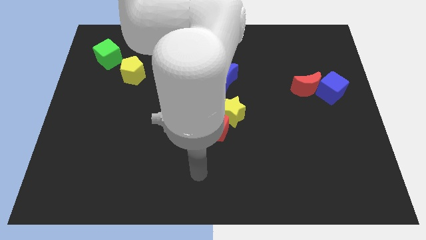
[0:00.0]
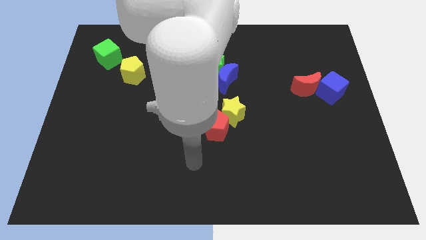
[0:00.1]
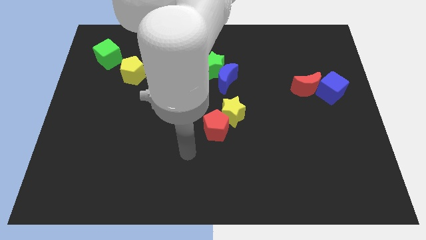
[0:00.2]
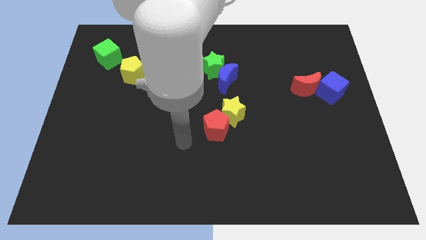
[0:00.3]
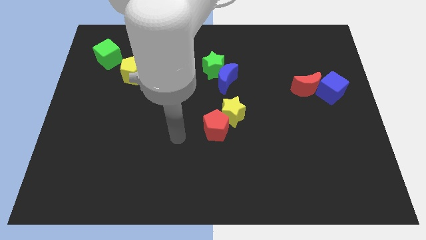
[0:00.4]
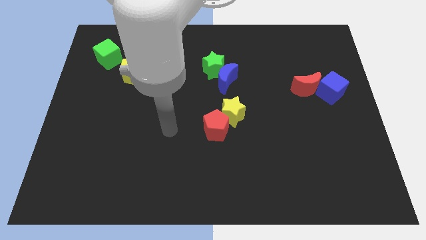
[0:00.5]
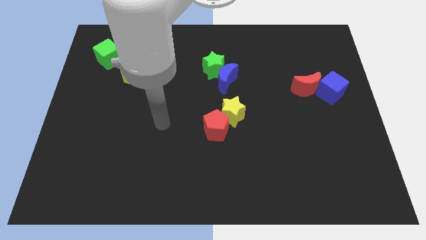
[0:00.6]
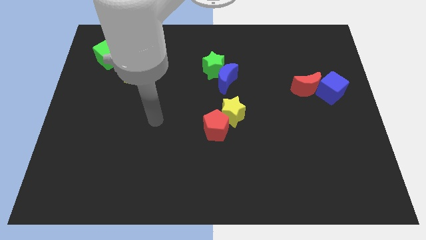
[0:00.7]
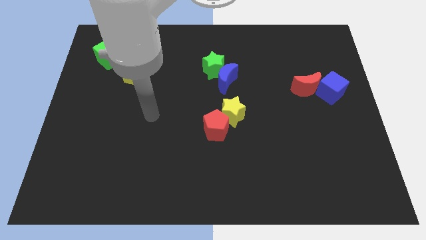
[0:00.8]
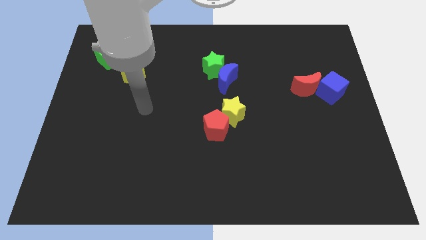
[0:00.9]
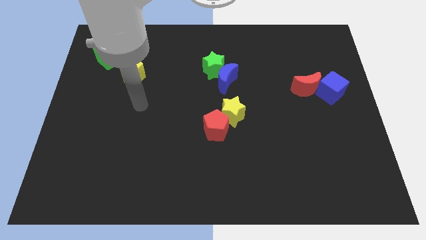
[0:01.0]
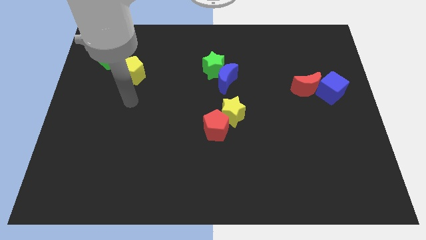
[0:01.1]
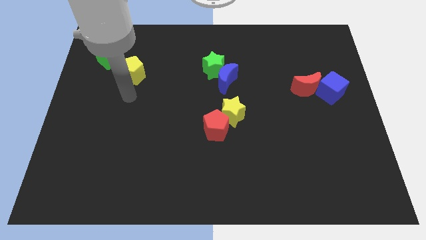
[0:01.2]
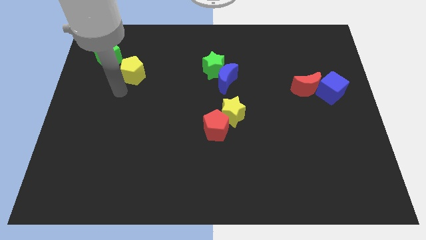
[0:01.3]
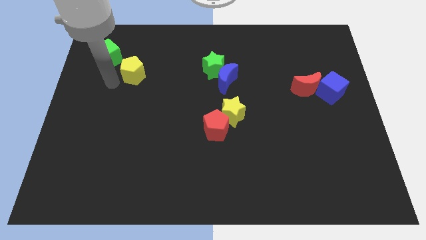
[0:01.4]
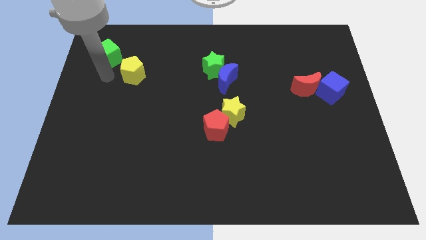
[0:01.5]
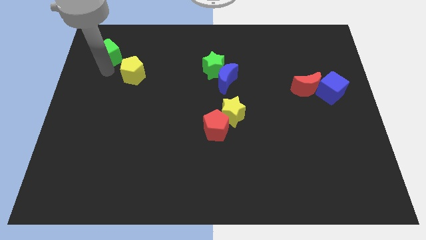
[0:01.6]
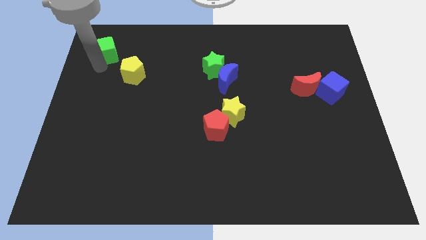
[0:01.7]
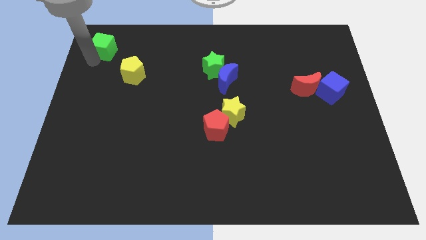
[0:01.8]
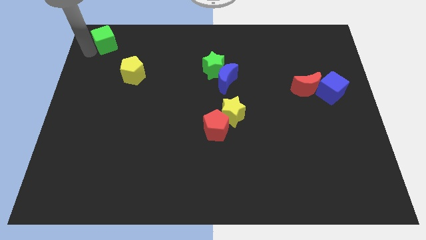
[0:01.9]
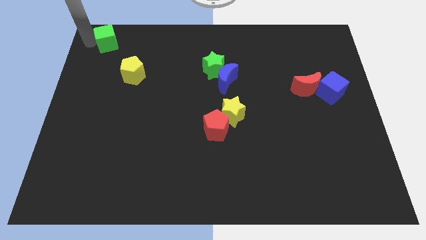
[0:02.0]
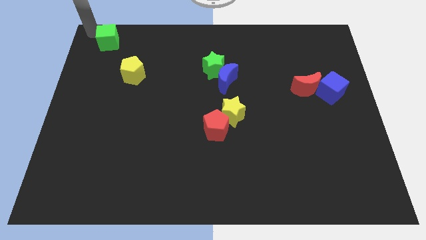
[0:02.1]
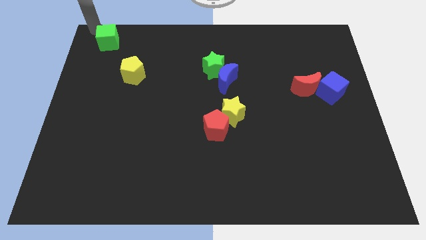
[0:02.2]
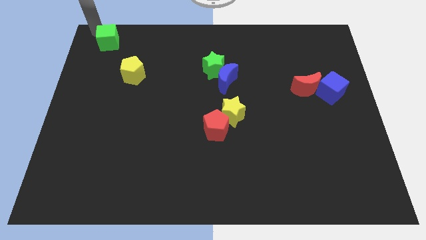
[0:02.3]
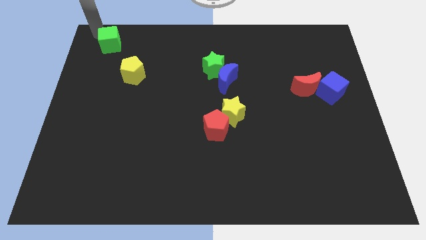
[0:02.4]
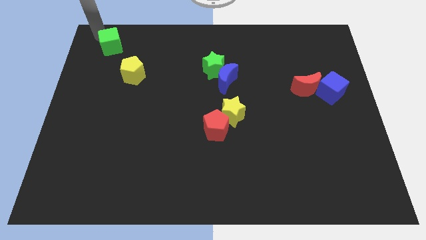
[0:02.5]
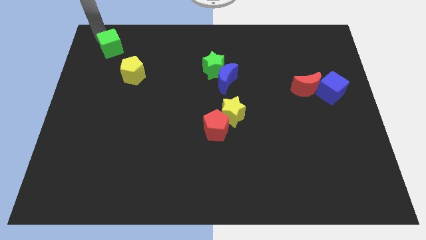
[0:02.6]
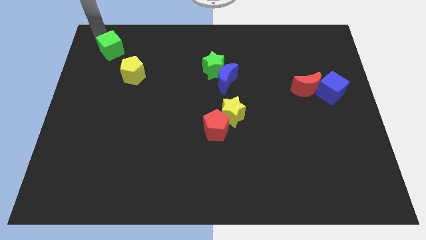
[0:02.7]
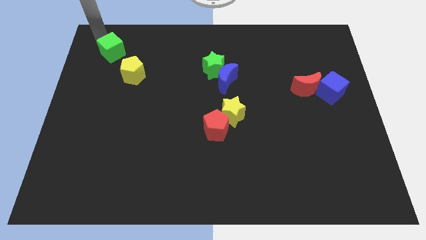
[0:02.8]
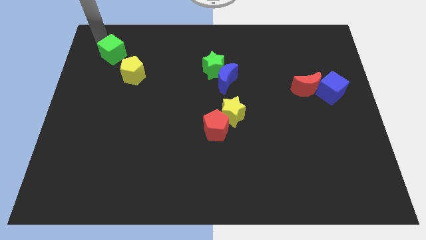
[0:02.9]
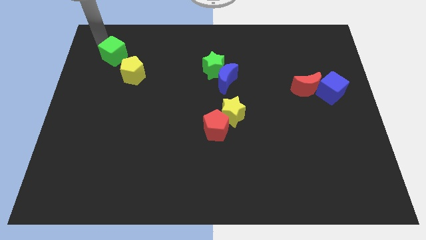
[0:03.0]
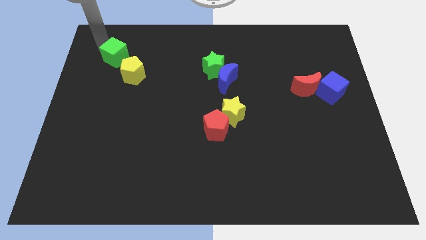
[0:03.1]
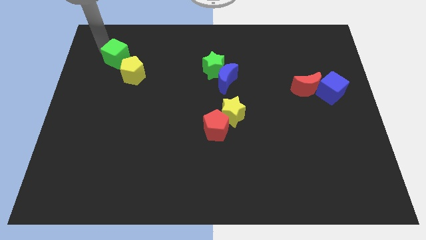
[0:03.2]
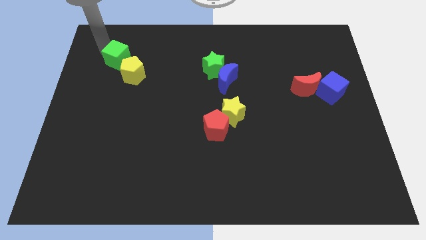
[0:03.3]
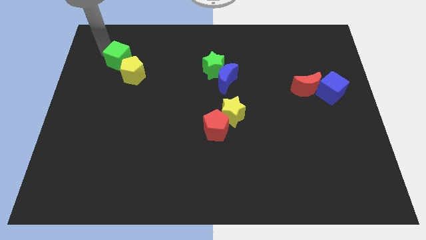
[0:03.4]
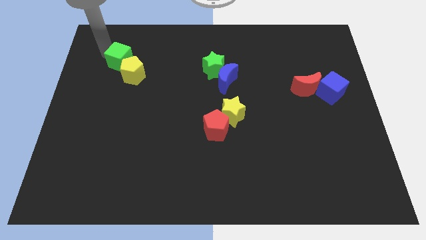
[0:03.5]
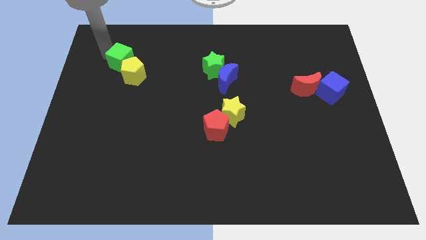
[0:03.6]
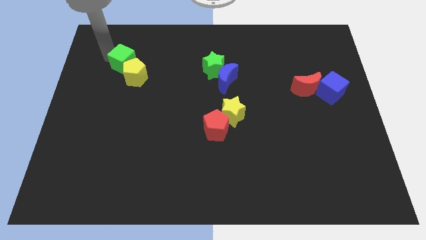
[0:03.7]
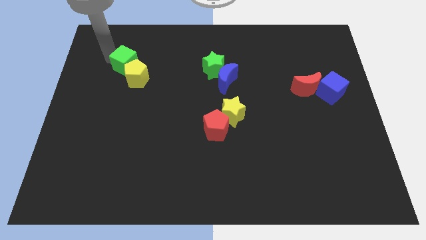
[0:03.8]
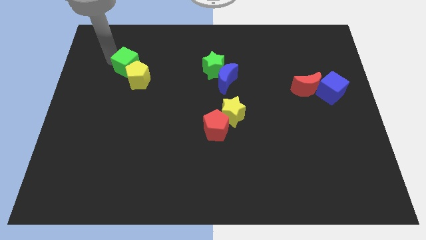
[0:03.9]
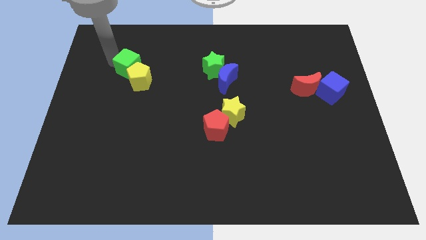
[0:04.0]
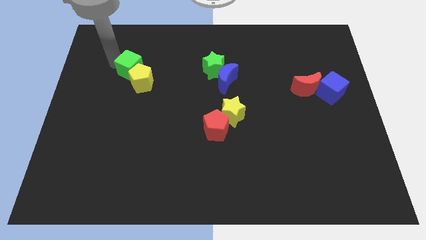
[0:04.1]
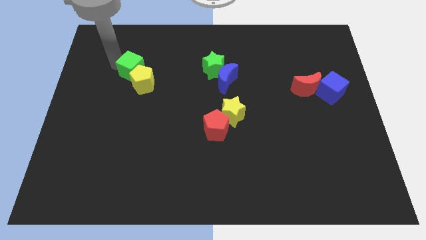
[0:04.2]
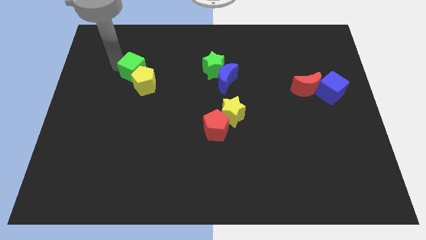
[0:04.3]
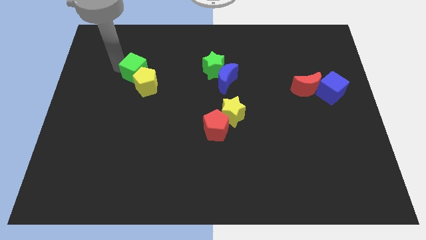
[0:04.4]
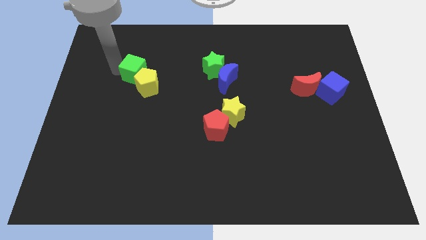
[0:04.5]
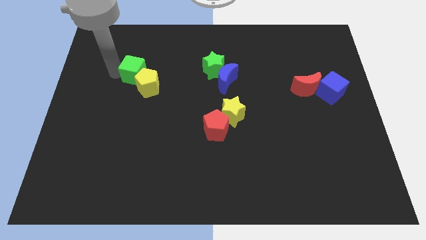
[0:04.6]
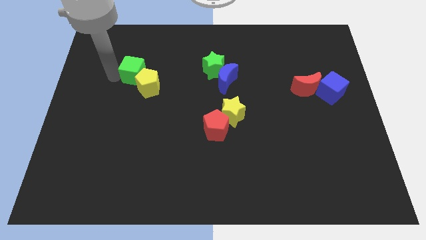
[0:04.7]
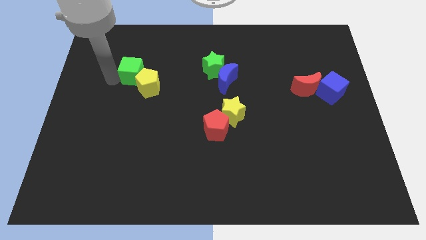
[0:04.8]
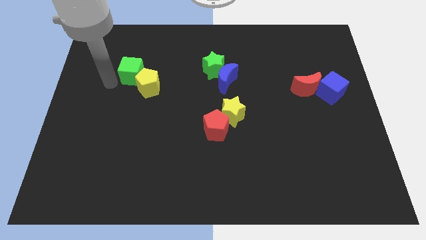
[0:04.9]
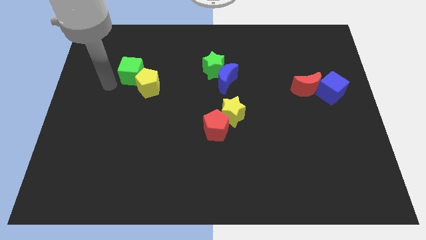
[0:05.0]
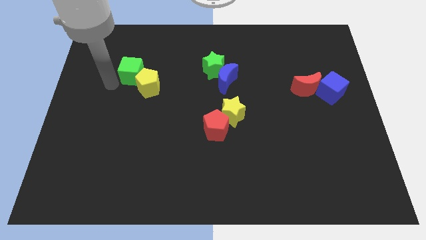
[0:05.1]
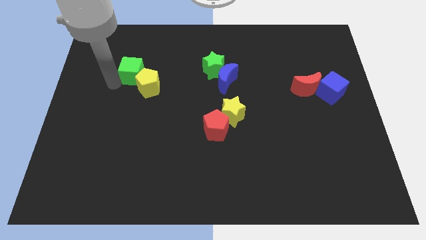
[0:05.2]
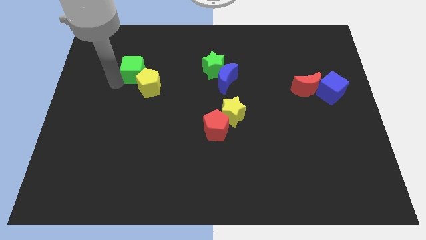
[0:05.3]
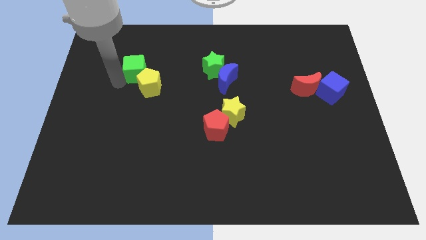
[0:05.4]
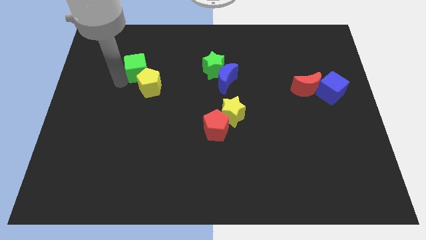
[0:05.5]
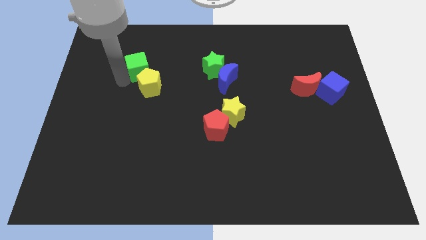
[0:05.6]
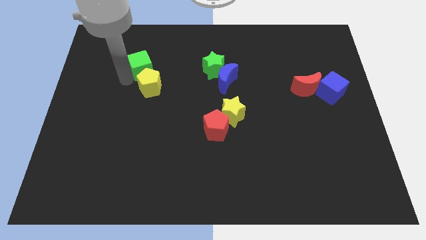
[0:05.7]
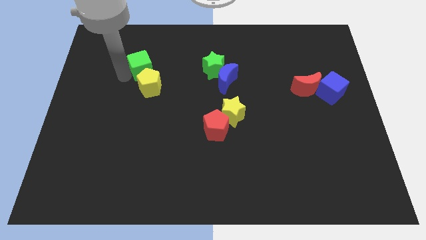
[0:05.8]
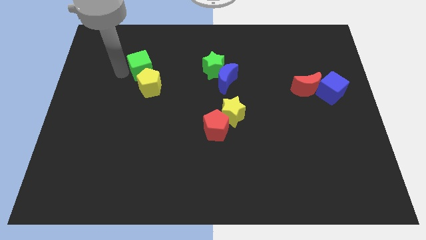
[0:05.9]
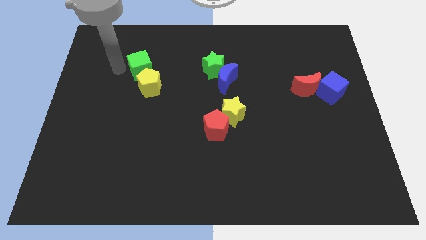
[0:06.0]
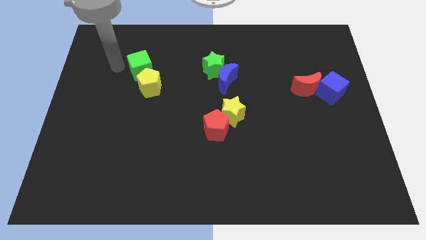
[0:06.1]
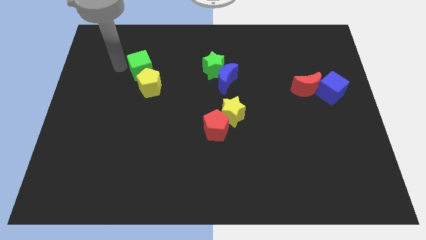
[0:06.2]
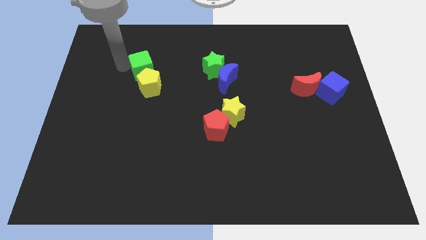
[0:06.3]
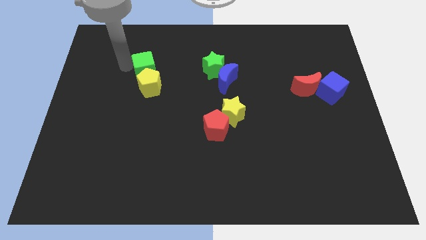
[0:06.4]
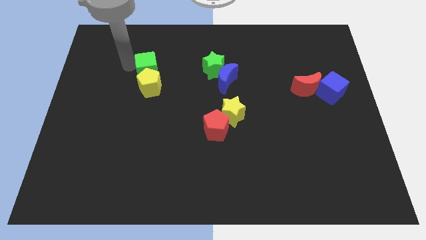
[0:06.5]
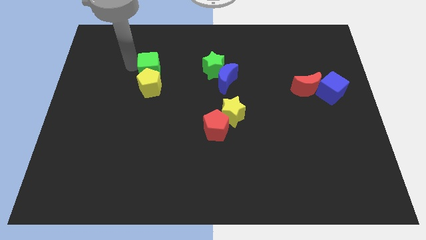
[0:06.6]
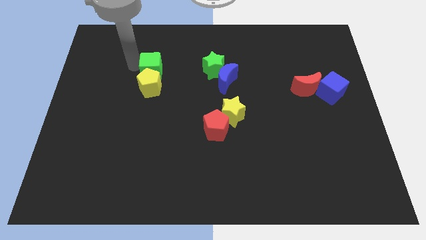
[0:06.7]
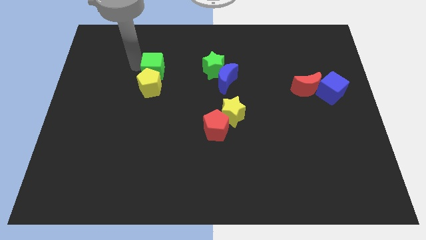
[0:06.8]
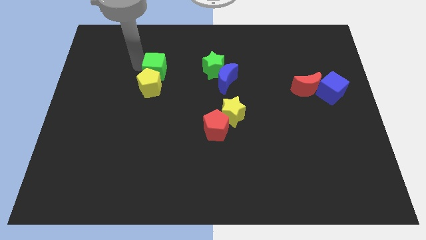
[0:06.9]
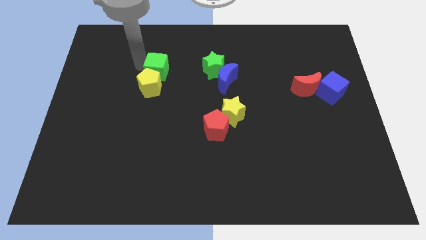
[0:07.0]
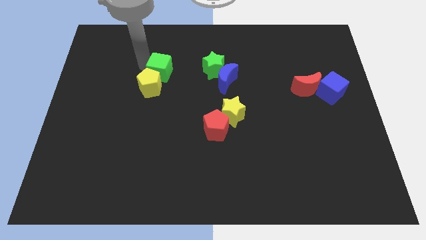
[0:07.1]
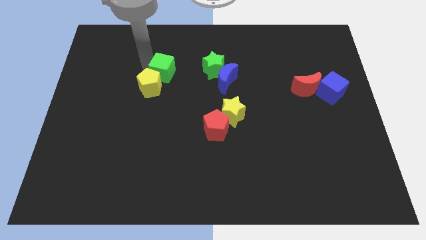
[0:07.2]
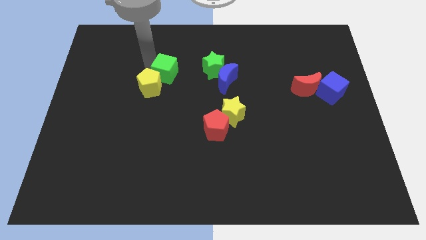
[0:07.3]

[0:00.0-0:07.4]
move the green cube to the left of the blue moon
